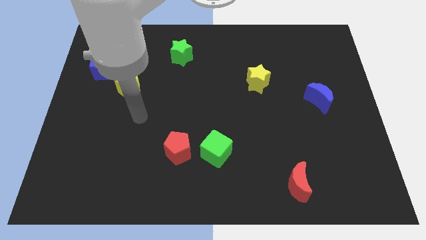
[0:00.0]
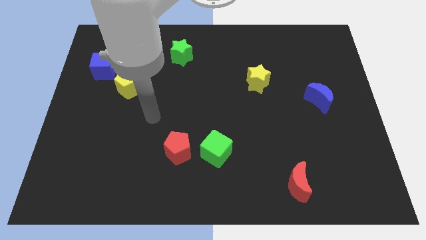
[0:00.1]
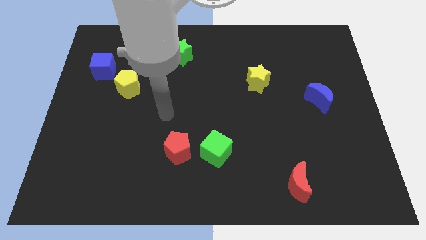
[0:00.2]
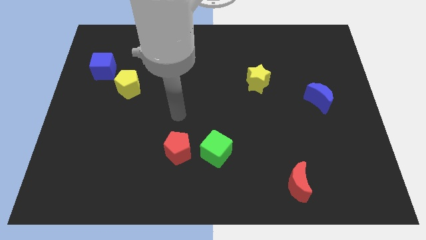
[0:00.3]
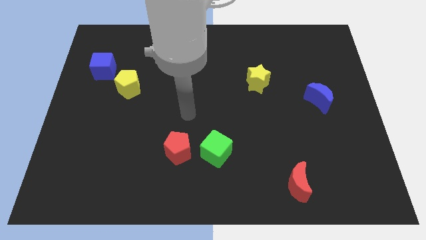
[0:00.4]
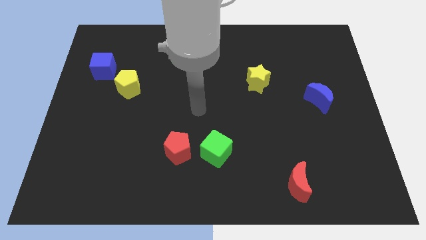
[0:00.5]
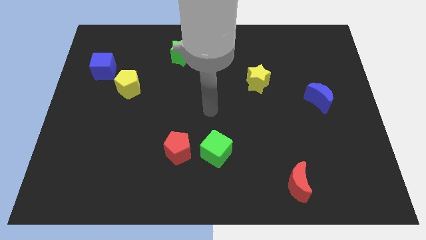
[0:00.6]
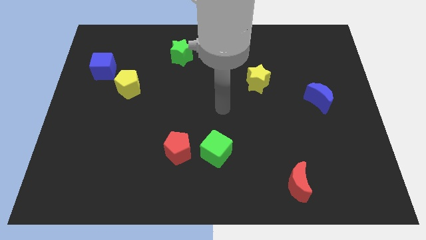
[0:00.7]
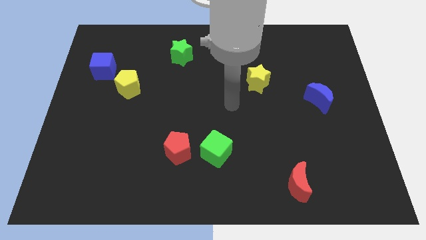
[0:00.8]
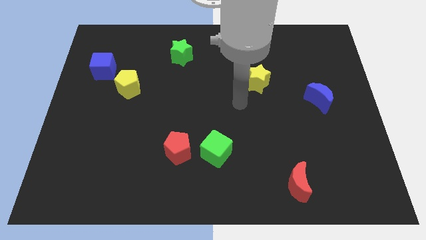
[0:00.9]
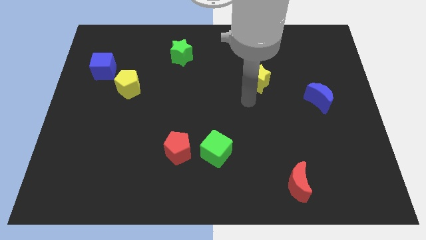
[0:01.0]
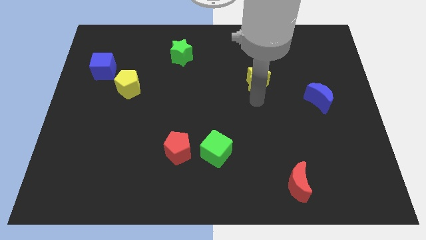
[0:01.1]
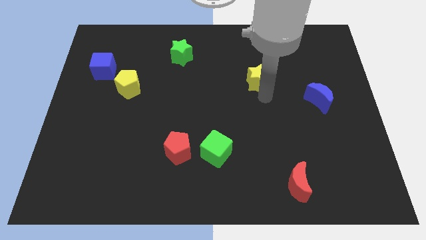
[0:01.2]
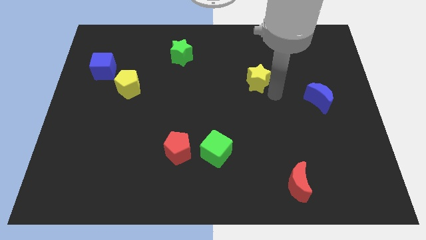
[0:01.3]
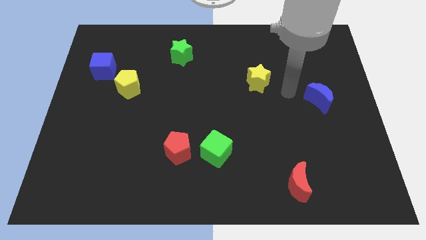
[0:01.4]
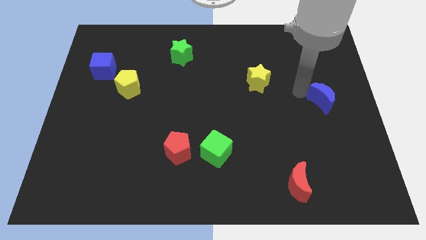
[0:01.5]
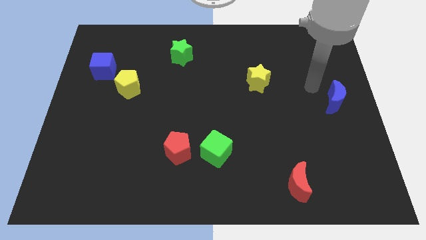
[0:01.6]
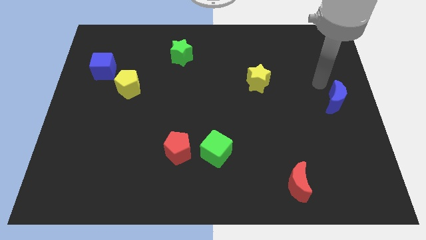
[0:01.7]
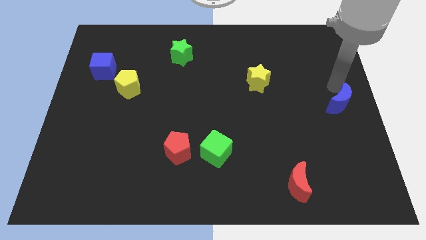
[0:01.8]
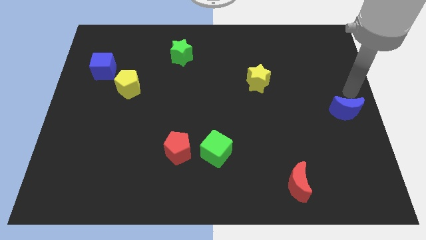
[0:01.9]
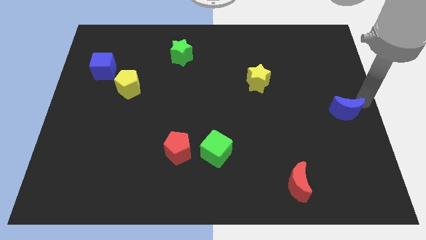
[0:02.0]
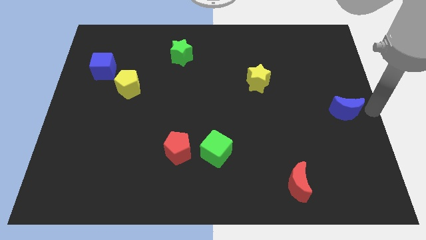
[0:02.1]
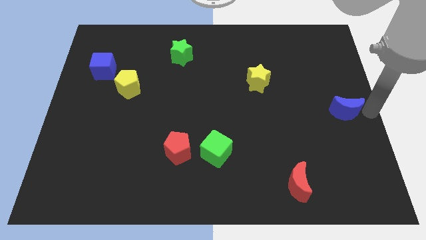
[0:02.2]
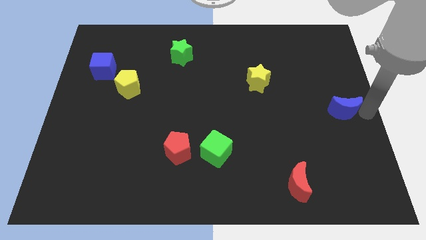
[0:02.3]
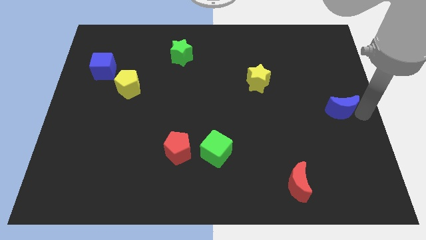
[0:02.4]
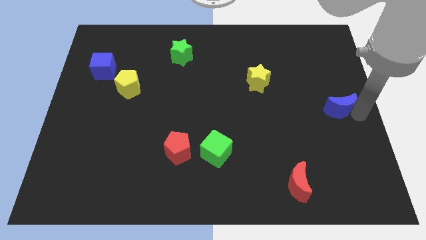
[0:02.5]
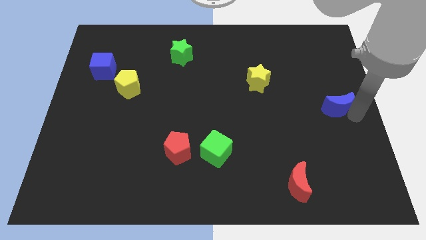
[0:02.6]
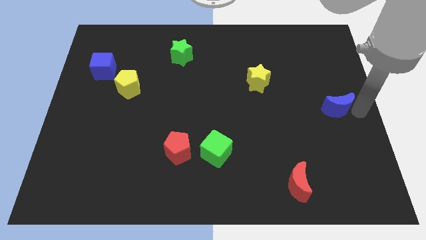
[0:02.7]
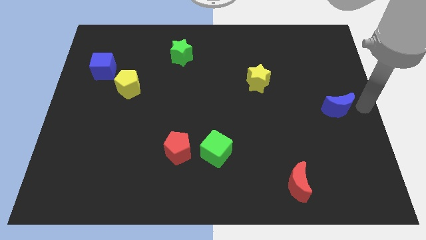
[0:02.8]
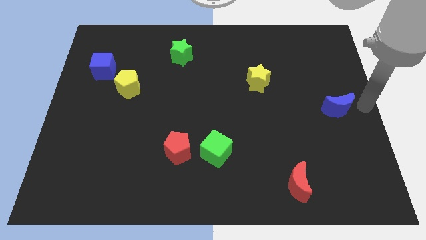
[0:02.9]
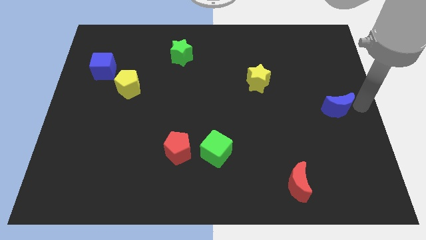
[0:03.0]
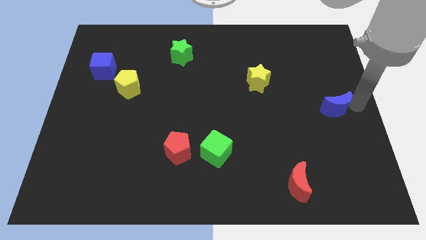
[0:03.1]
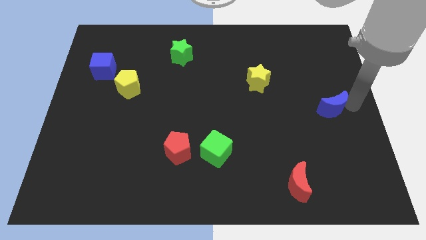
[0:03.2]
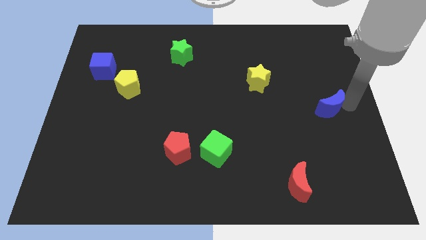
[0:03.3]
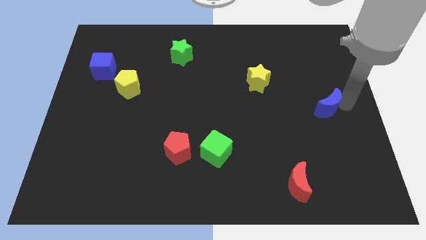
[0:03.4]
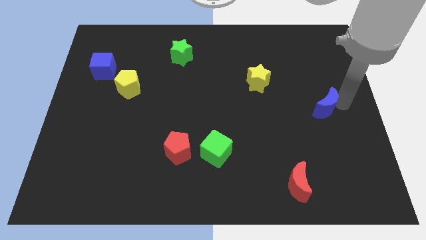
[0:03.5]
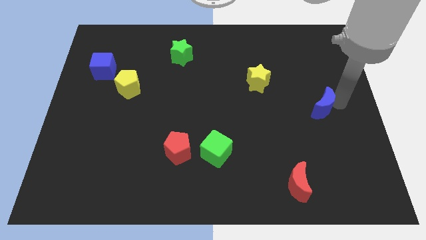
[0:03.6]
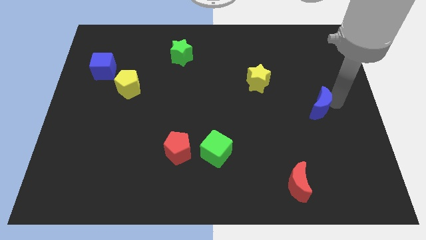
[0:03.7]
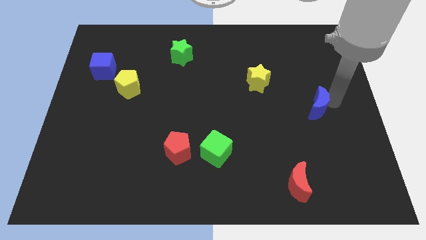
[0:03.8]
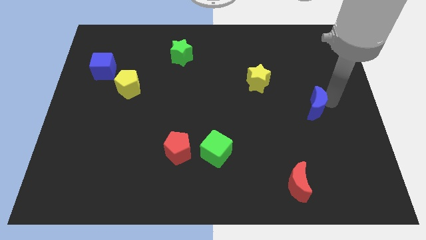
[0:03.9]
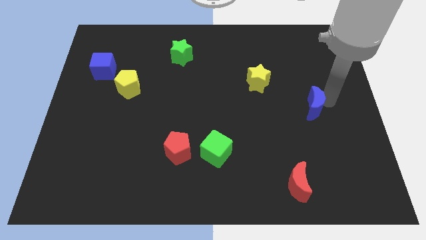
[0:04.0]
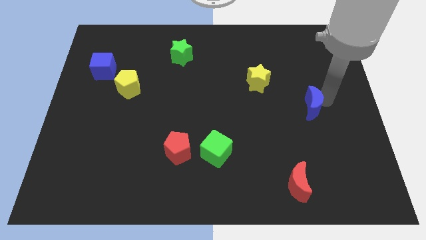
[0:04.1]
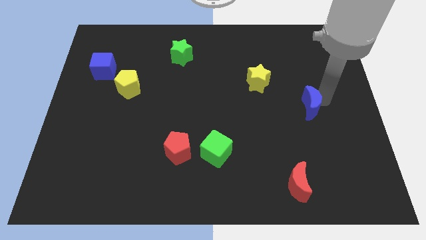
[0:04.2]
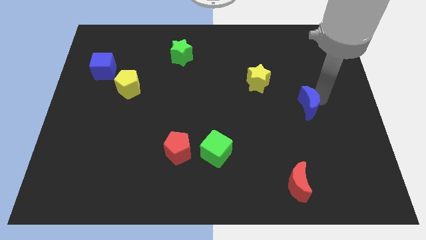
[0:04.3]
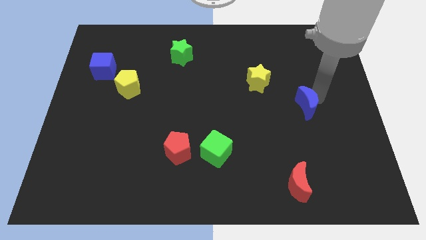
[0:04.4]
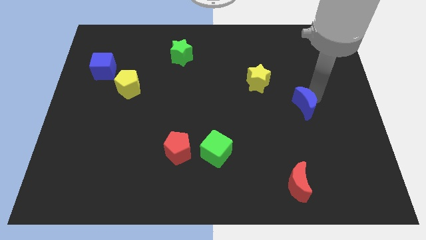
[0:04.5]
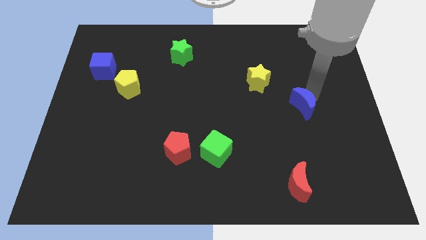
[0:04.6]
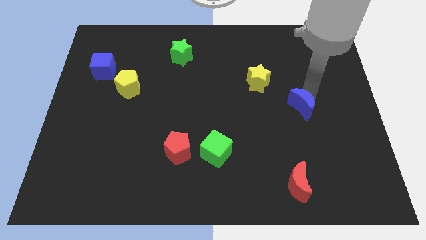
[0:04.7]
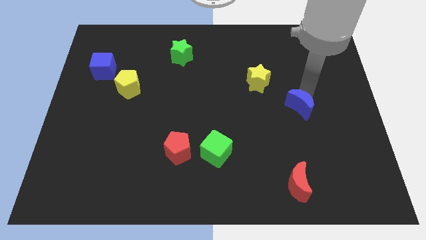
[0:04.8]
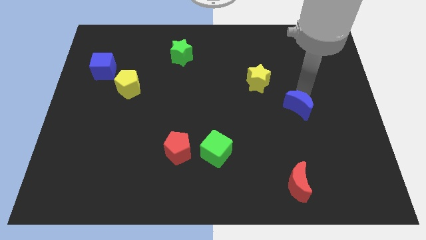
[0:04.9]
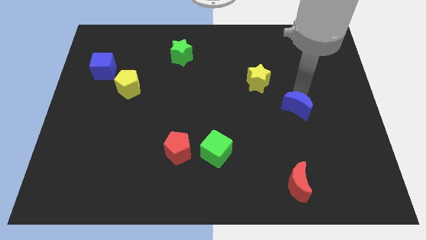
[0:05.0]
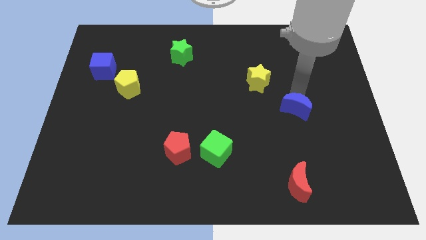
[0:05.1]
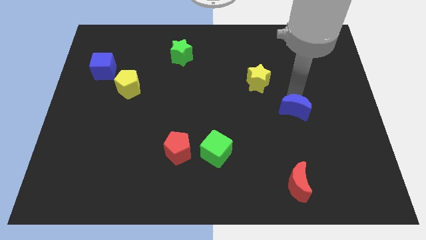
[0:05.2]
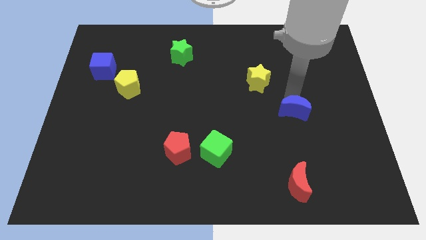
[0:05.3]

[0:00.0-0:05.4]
push the blue moon downwards and then left slightly

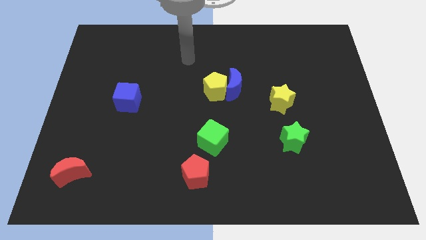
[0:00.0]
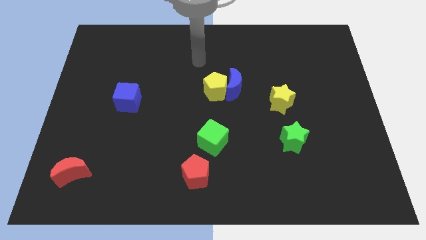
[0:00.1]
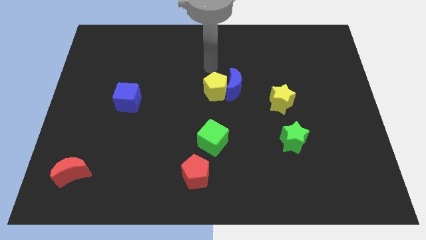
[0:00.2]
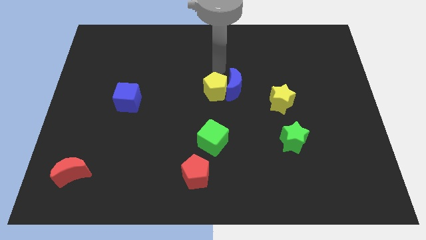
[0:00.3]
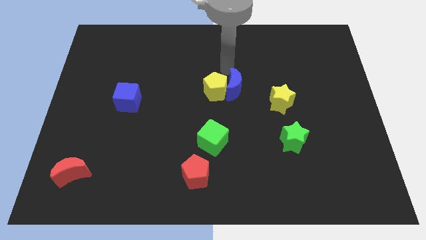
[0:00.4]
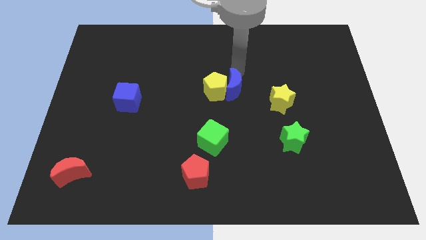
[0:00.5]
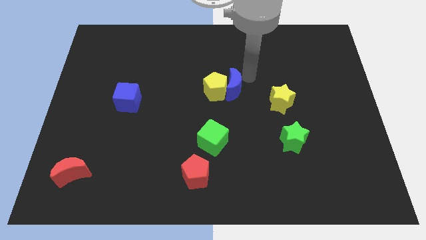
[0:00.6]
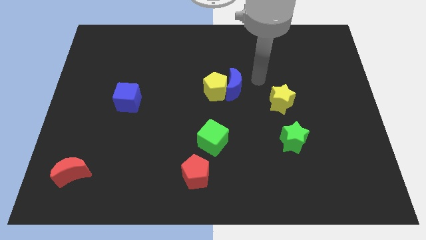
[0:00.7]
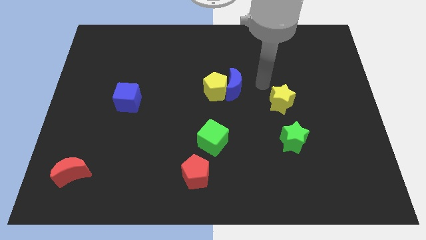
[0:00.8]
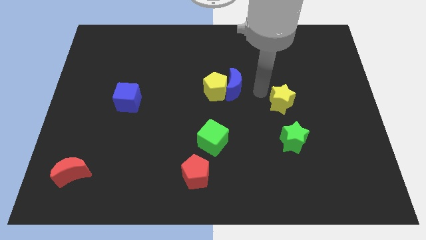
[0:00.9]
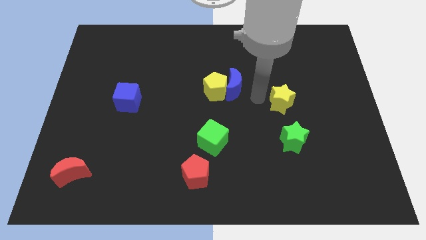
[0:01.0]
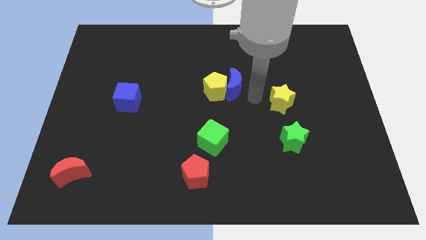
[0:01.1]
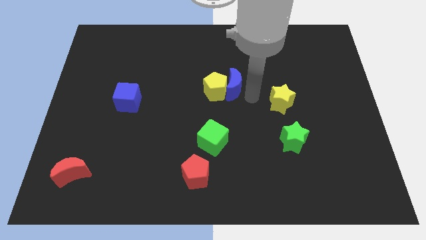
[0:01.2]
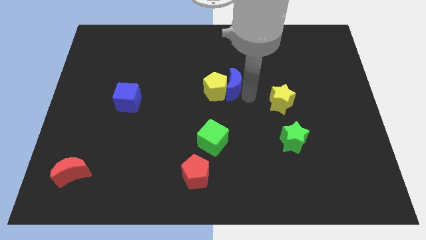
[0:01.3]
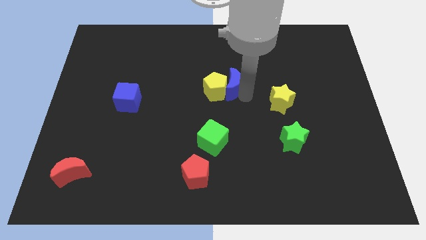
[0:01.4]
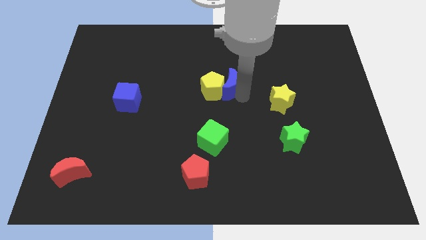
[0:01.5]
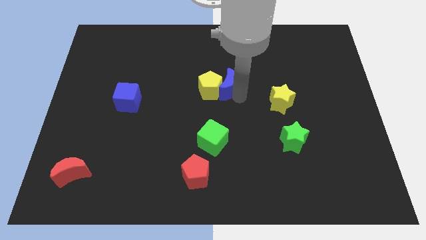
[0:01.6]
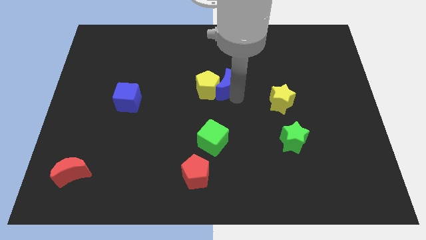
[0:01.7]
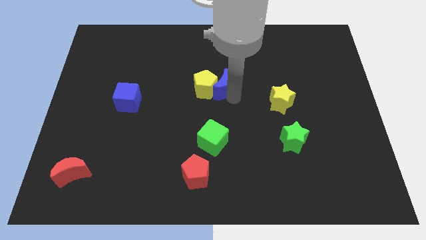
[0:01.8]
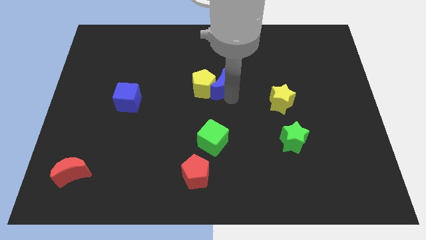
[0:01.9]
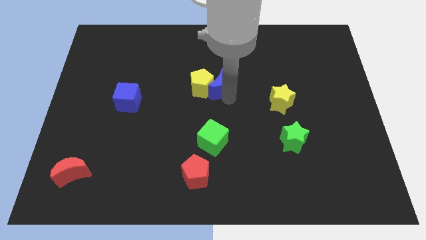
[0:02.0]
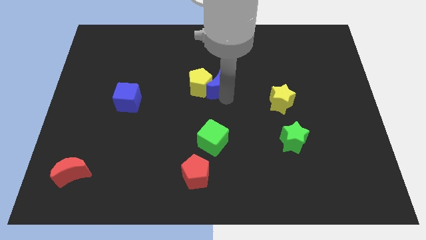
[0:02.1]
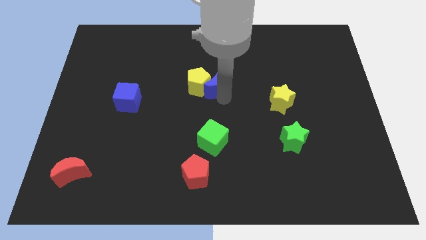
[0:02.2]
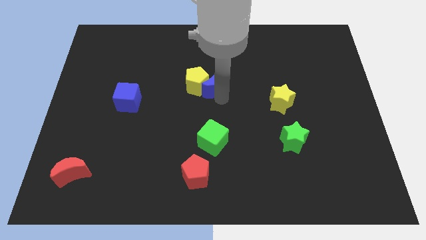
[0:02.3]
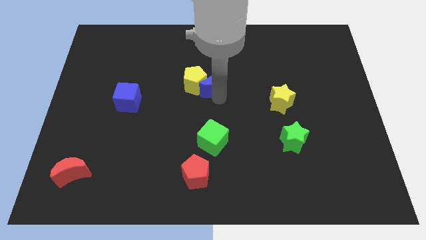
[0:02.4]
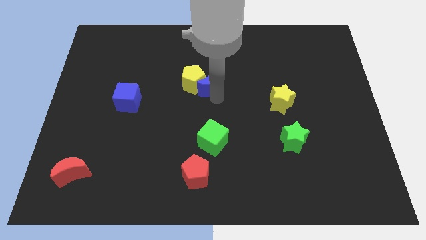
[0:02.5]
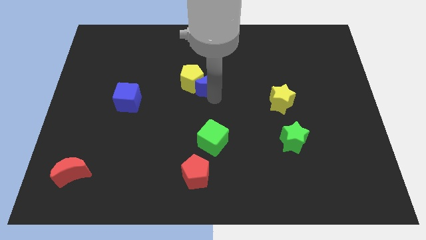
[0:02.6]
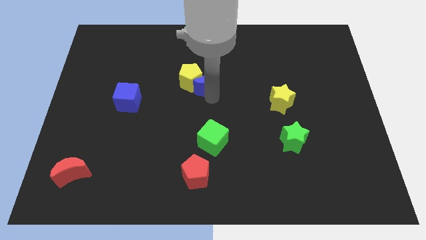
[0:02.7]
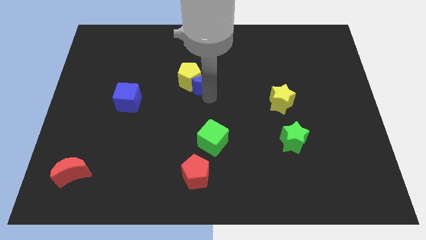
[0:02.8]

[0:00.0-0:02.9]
slightly move the blue moon left
